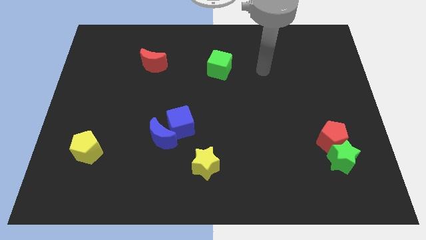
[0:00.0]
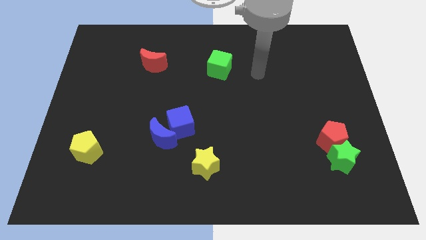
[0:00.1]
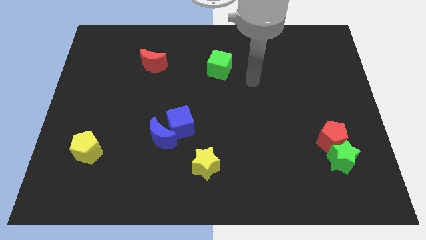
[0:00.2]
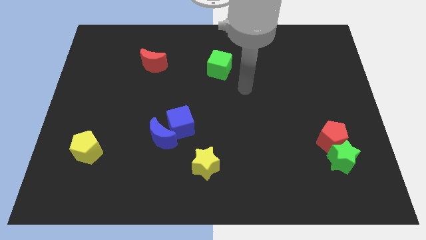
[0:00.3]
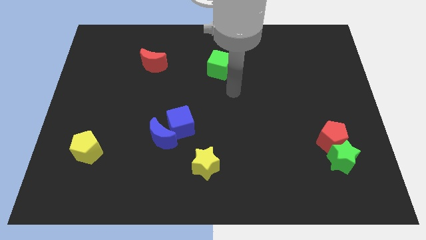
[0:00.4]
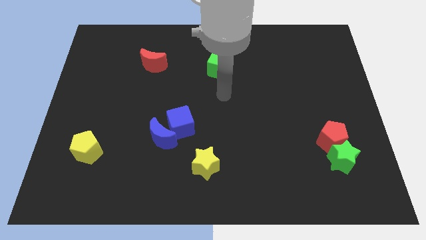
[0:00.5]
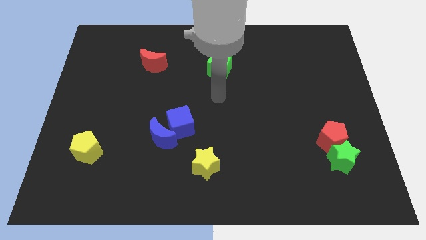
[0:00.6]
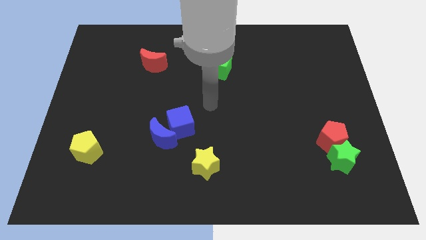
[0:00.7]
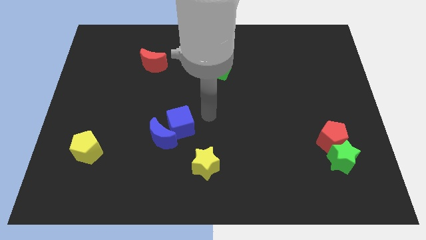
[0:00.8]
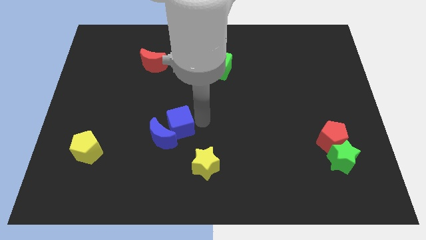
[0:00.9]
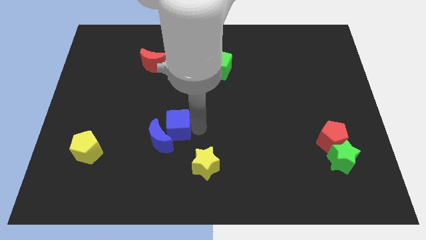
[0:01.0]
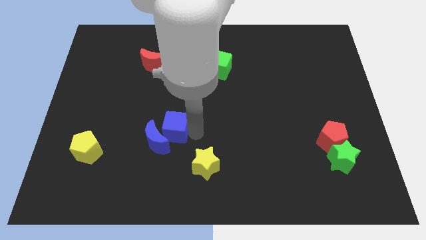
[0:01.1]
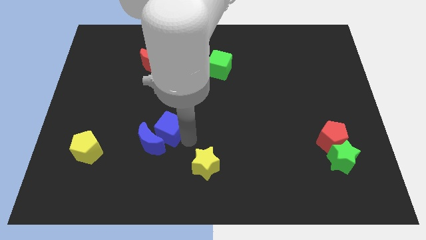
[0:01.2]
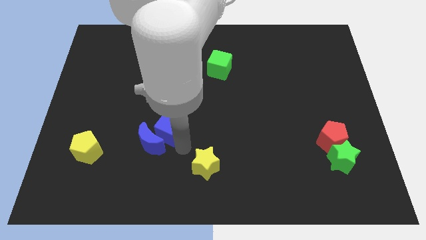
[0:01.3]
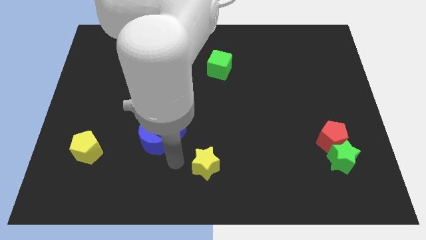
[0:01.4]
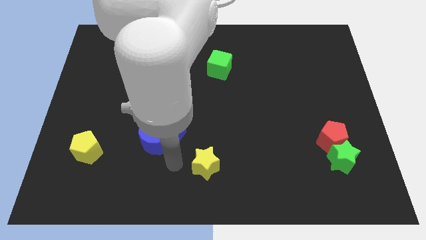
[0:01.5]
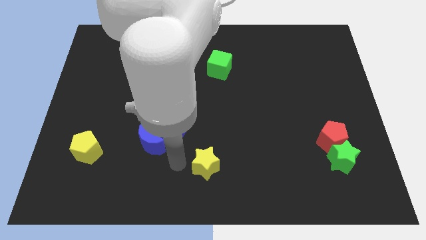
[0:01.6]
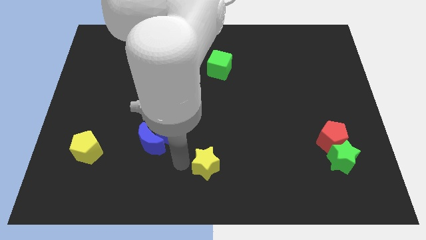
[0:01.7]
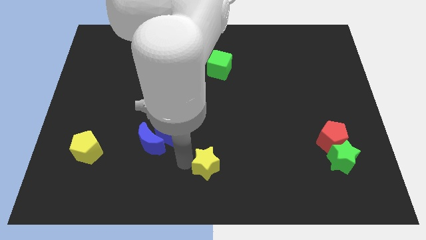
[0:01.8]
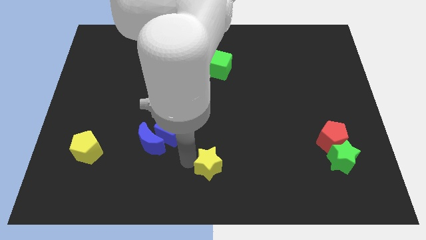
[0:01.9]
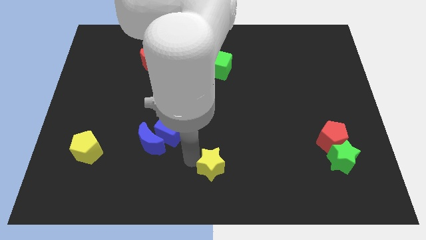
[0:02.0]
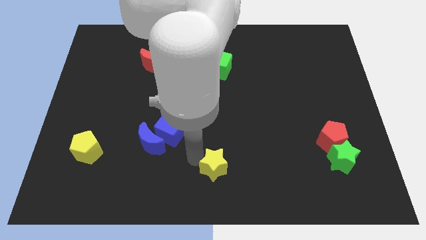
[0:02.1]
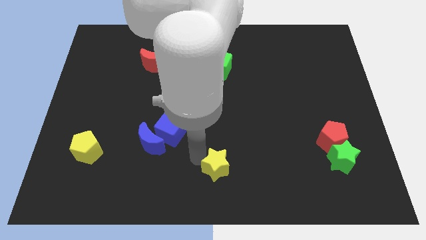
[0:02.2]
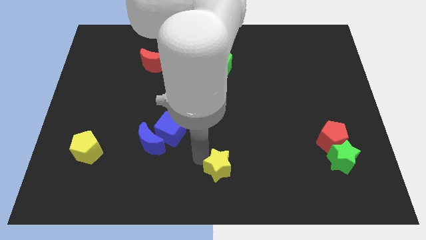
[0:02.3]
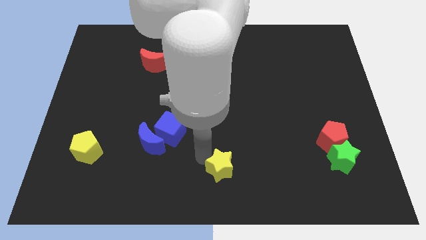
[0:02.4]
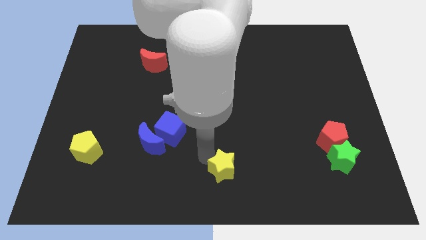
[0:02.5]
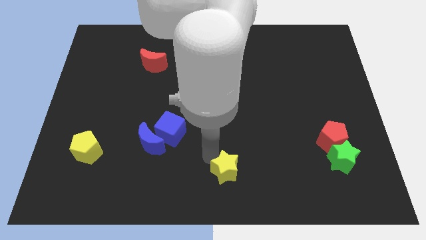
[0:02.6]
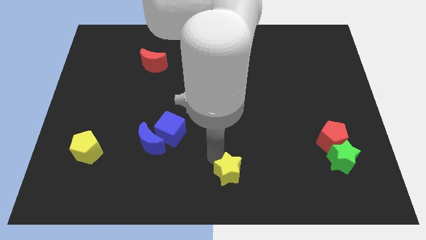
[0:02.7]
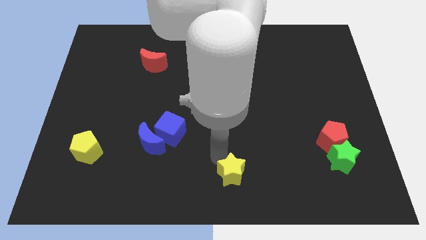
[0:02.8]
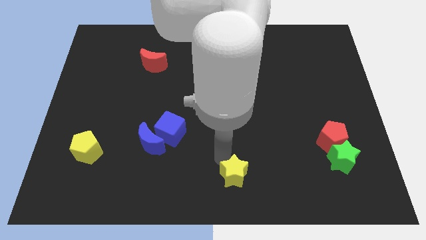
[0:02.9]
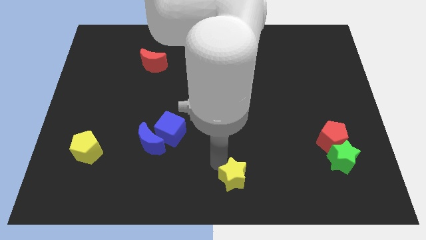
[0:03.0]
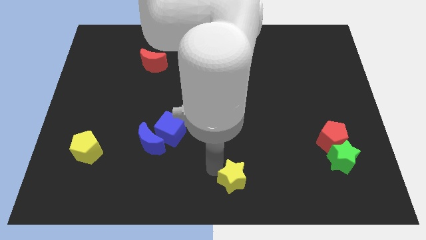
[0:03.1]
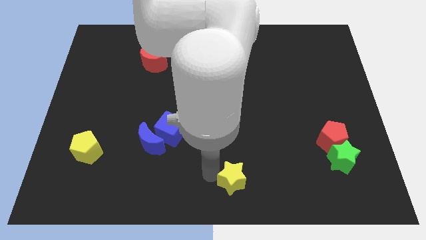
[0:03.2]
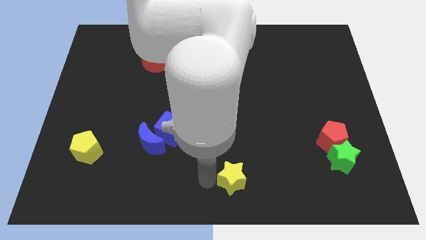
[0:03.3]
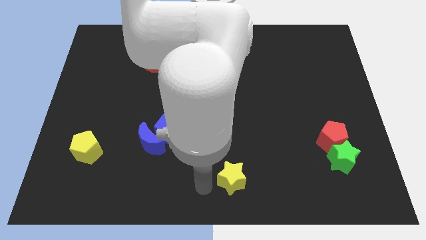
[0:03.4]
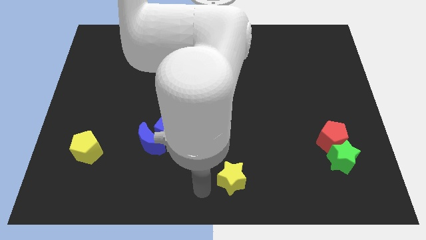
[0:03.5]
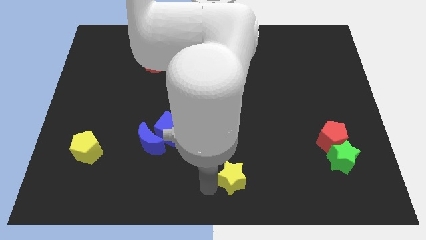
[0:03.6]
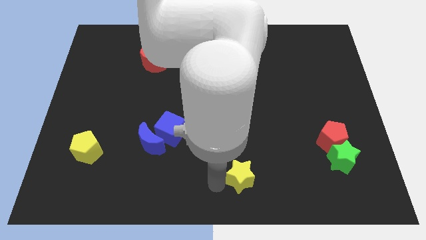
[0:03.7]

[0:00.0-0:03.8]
push the yellow star right a little

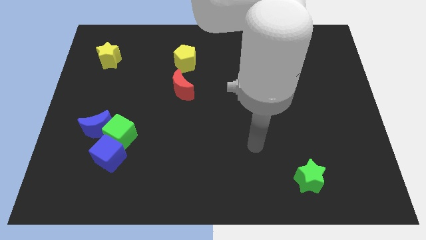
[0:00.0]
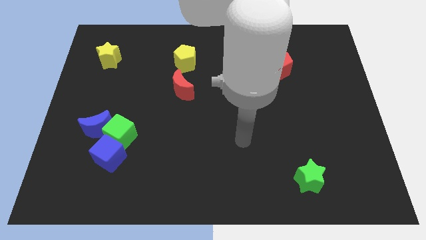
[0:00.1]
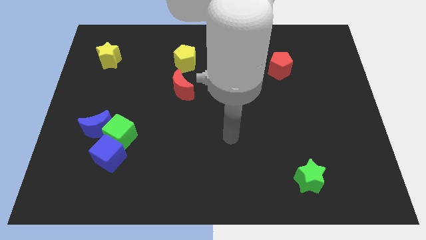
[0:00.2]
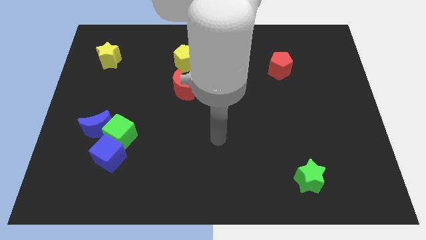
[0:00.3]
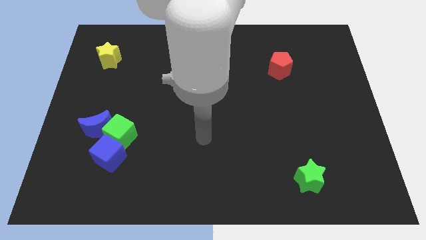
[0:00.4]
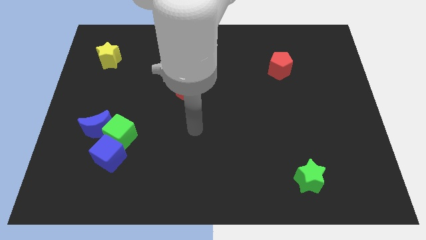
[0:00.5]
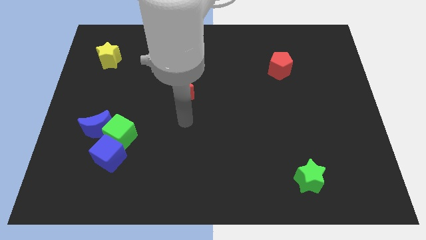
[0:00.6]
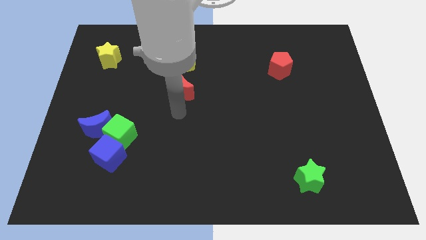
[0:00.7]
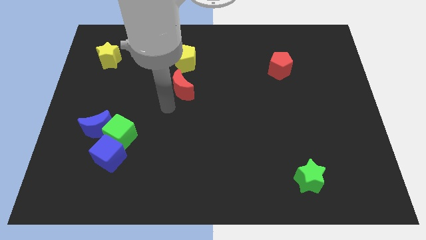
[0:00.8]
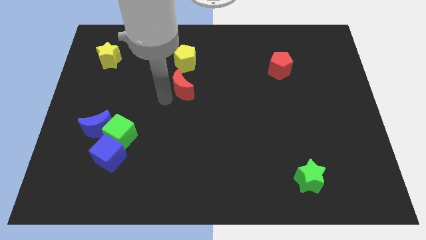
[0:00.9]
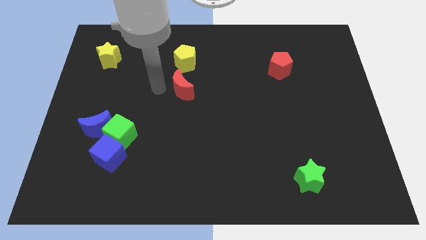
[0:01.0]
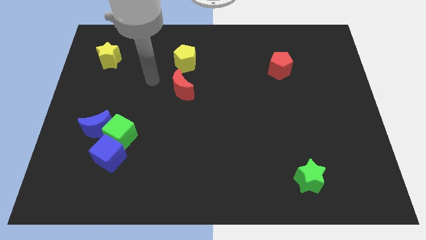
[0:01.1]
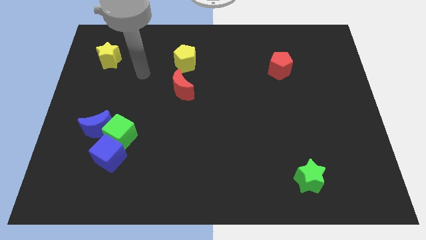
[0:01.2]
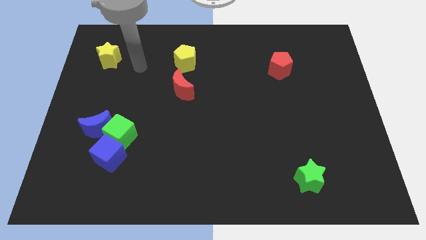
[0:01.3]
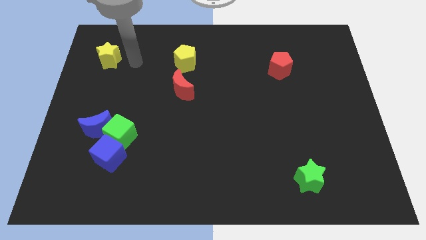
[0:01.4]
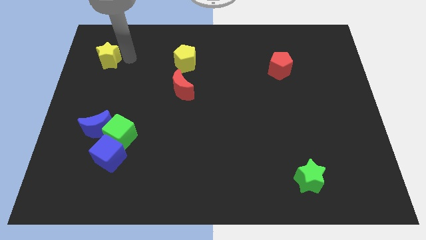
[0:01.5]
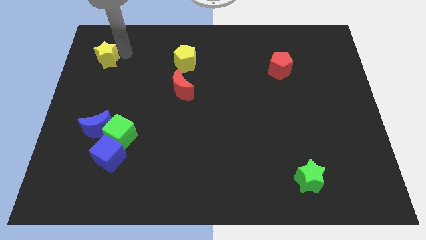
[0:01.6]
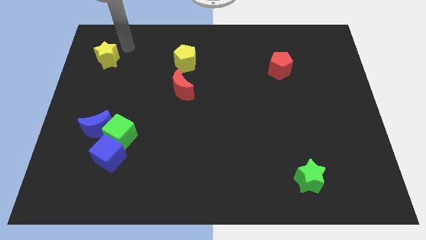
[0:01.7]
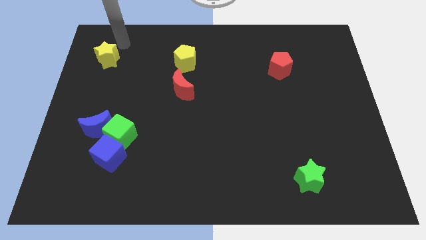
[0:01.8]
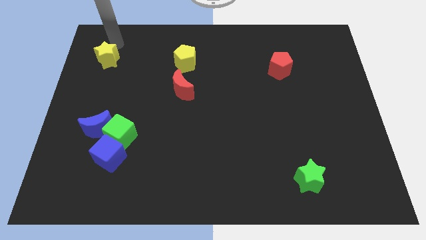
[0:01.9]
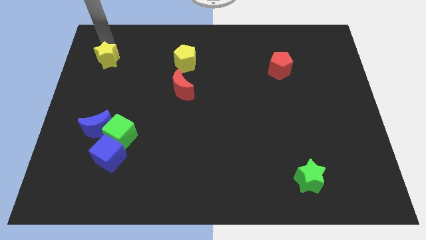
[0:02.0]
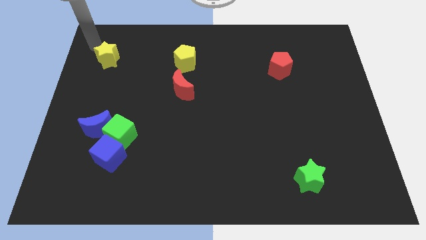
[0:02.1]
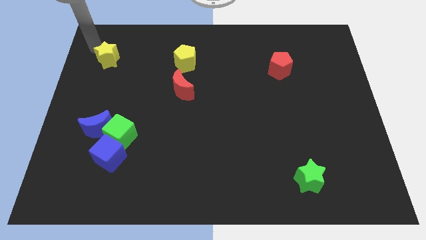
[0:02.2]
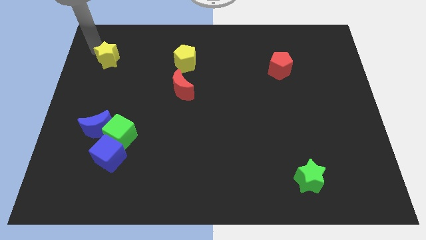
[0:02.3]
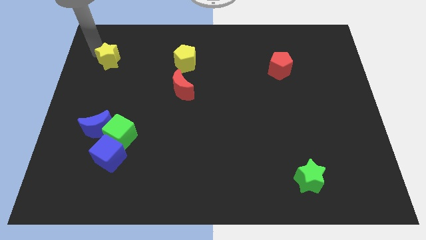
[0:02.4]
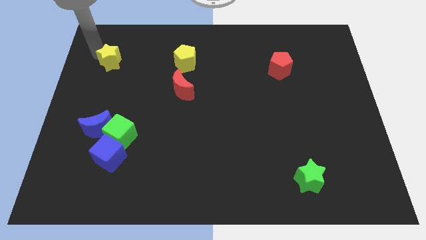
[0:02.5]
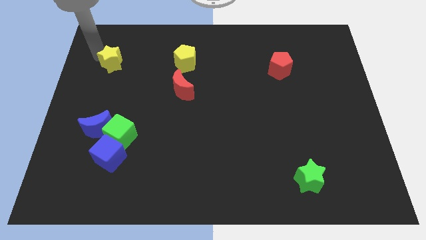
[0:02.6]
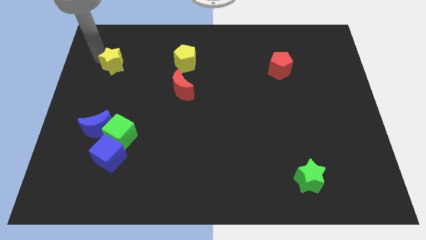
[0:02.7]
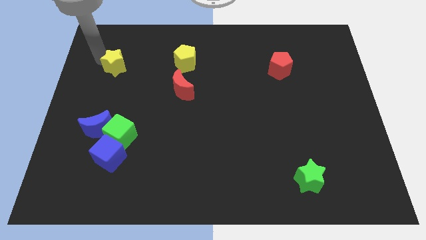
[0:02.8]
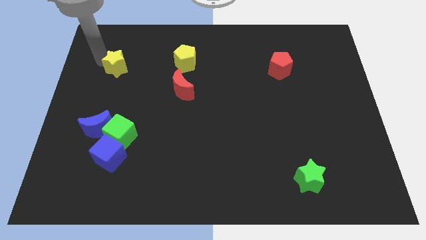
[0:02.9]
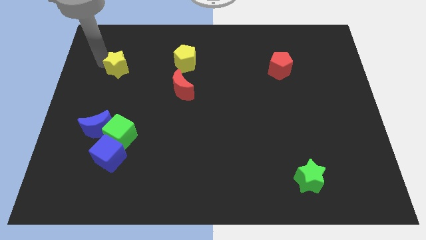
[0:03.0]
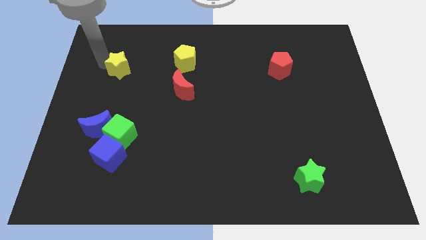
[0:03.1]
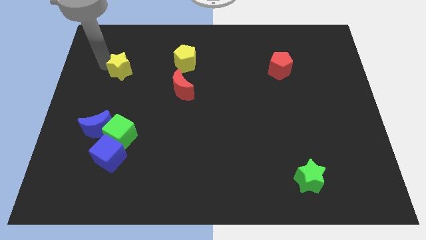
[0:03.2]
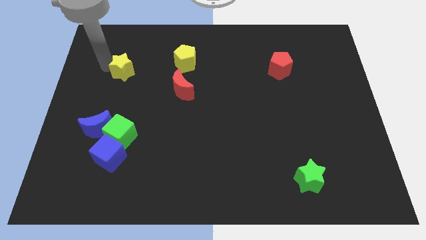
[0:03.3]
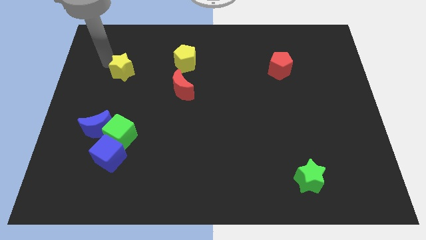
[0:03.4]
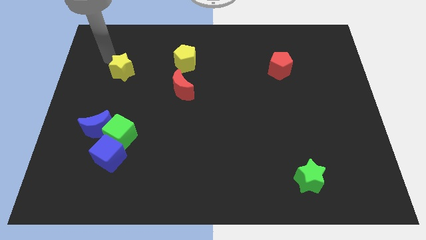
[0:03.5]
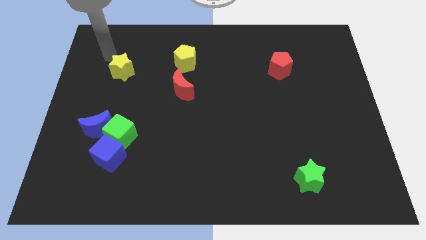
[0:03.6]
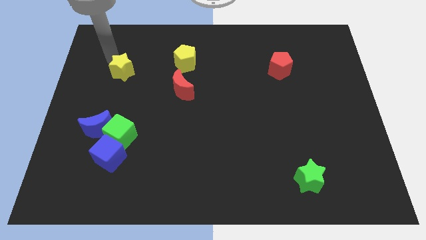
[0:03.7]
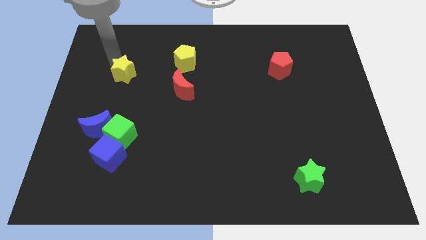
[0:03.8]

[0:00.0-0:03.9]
push the yellow star somewhat down and then to the right

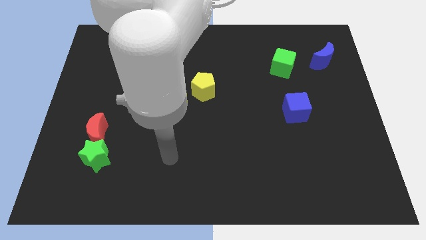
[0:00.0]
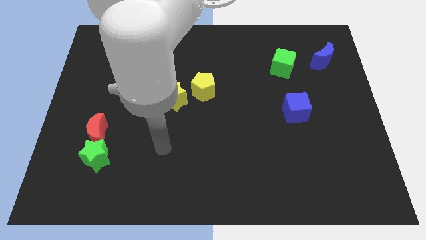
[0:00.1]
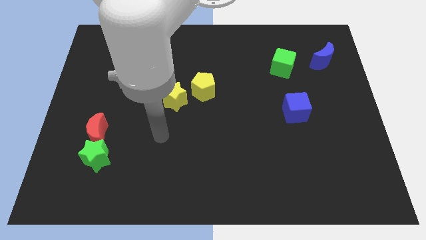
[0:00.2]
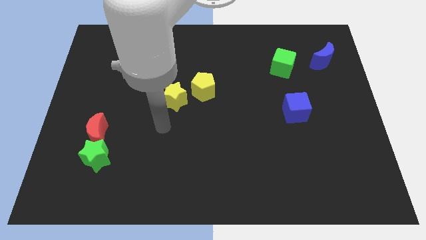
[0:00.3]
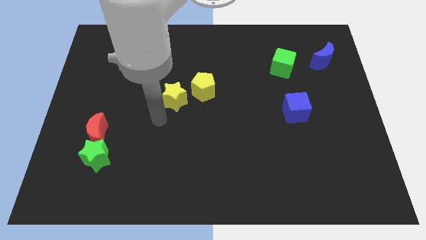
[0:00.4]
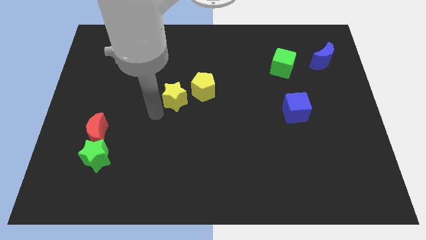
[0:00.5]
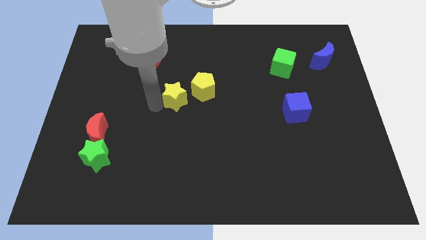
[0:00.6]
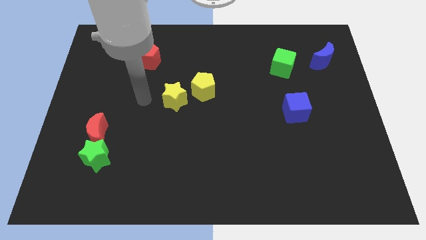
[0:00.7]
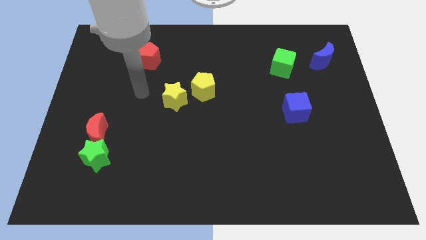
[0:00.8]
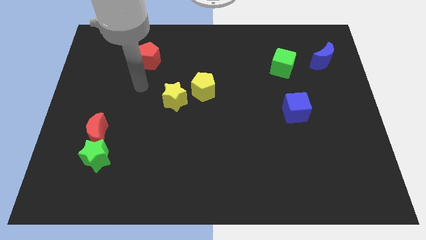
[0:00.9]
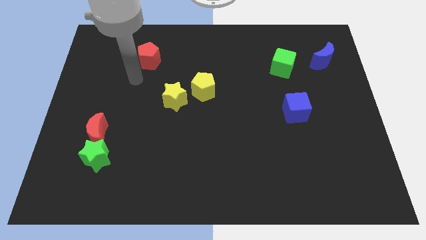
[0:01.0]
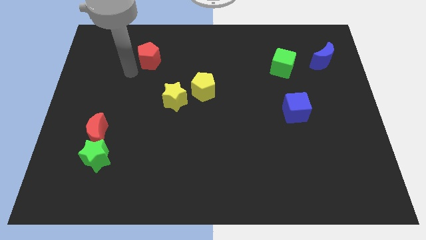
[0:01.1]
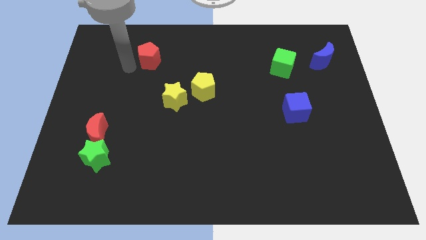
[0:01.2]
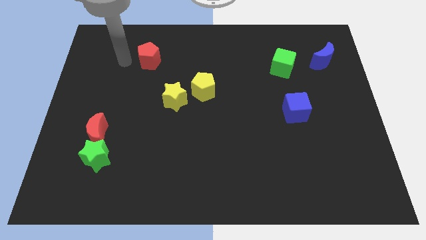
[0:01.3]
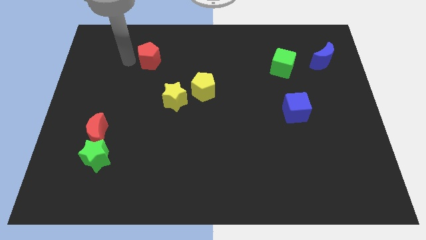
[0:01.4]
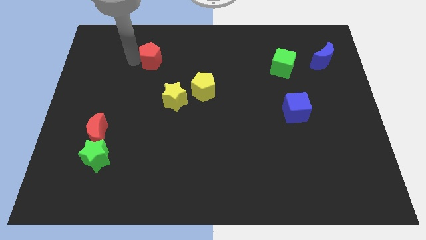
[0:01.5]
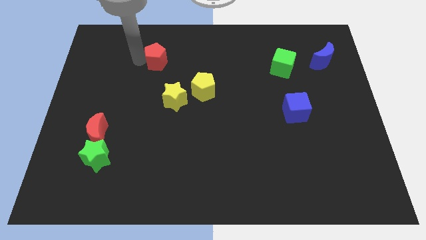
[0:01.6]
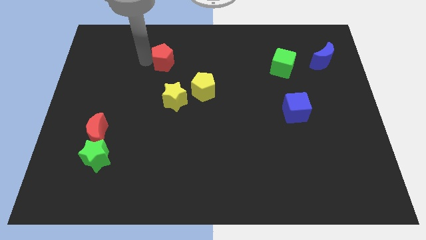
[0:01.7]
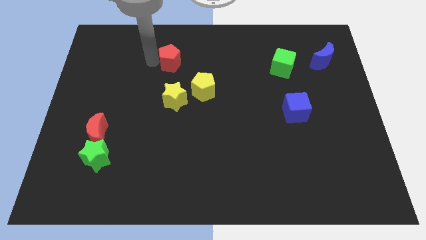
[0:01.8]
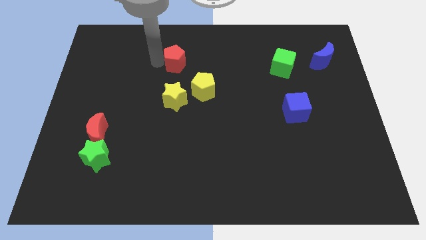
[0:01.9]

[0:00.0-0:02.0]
slide the red pentagon right a bit
